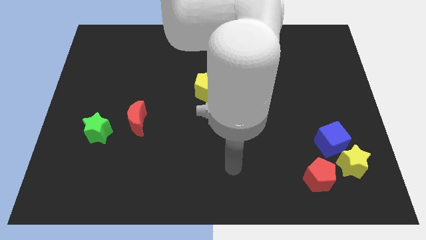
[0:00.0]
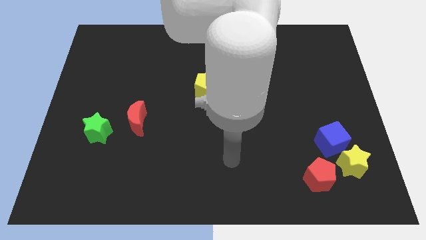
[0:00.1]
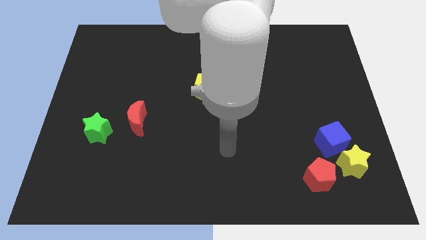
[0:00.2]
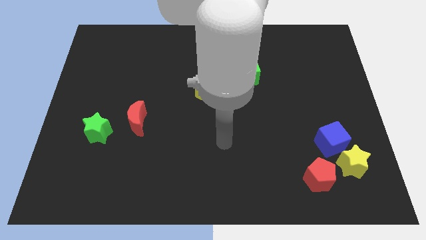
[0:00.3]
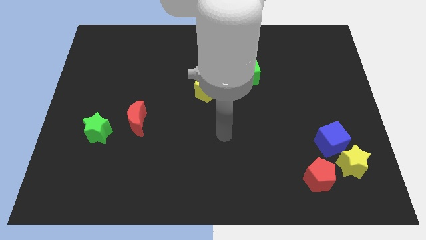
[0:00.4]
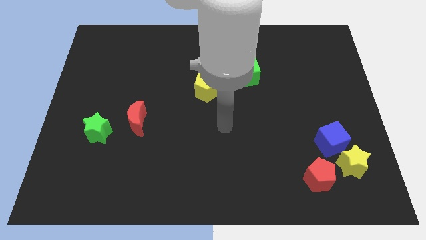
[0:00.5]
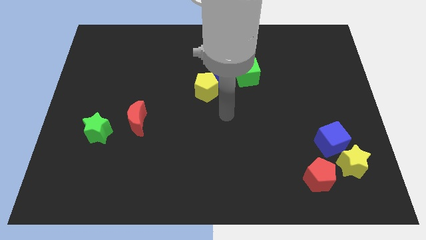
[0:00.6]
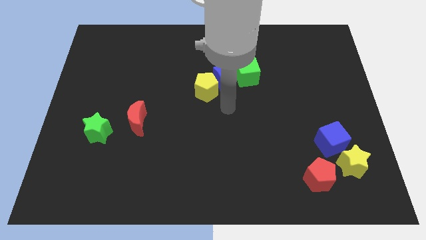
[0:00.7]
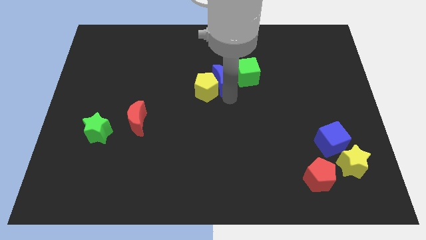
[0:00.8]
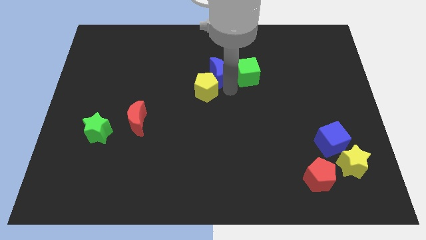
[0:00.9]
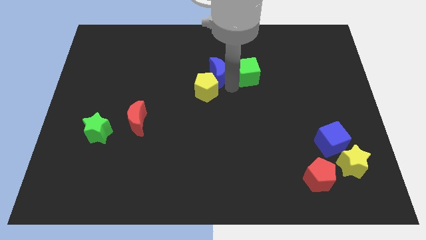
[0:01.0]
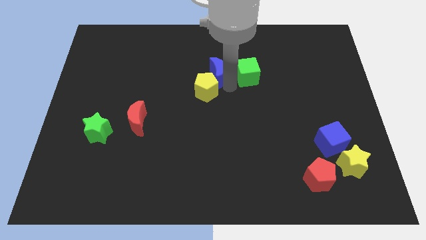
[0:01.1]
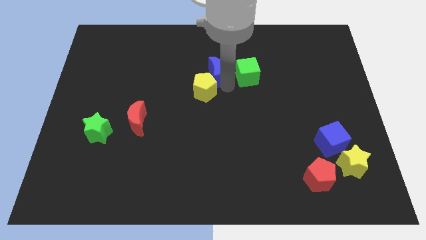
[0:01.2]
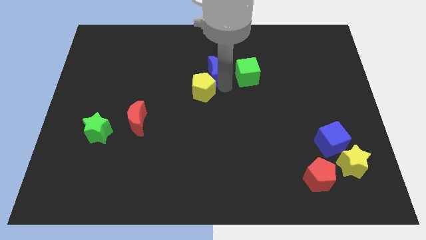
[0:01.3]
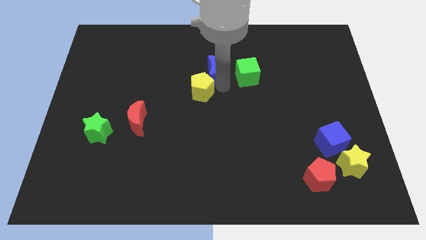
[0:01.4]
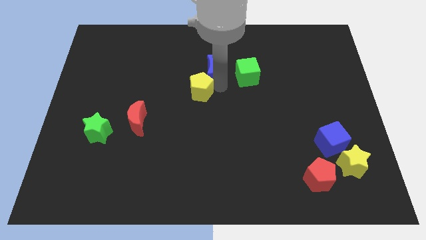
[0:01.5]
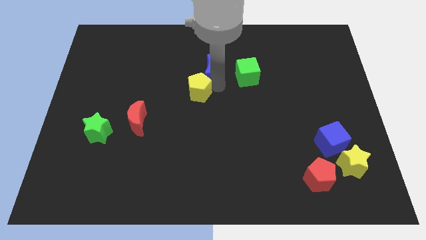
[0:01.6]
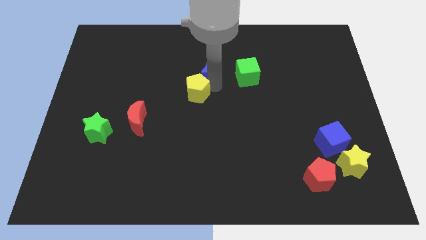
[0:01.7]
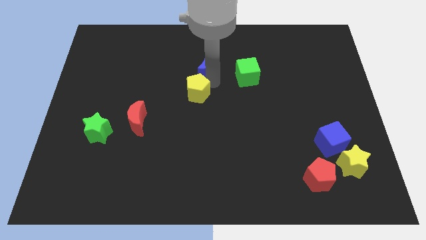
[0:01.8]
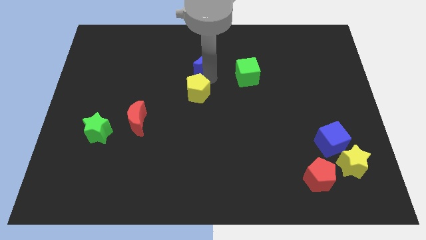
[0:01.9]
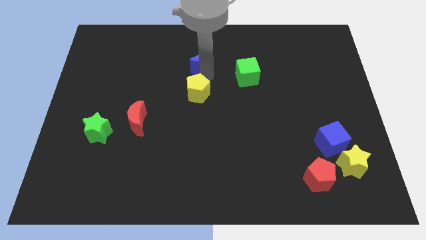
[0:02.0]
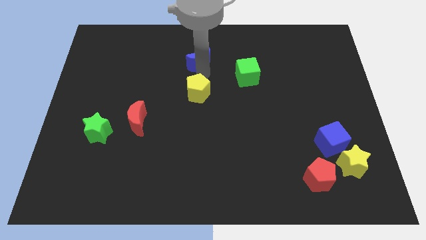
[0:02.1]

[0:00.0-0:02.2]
pull the yellow pentagon apart from the blue moon

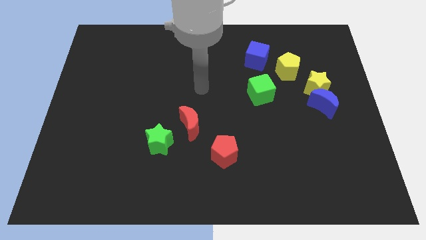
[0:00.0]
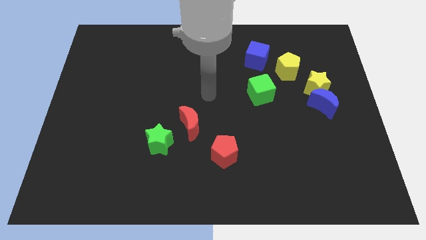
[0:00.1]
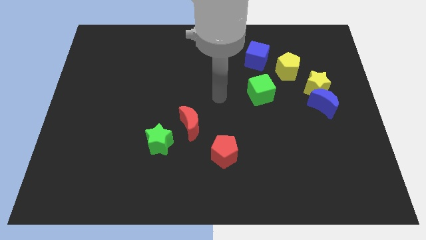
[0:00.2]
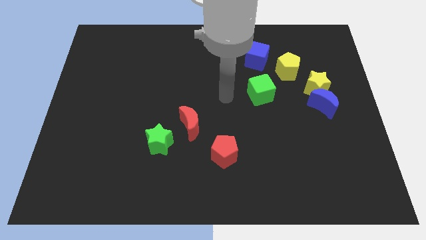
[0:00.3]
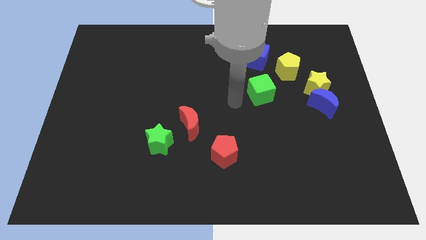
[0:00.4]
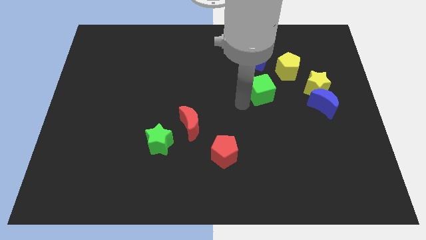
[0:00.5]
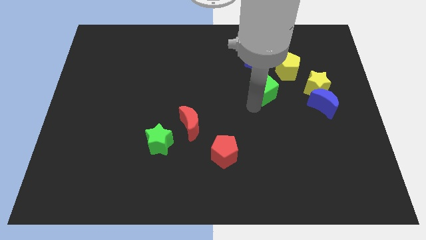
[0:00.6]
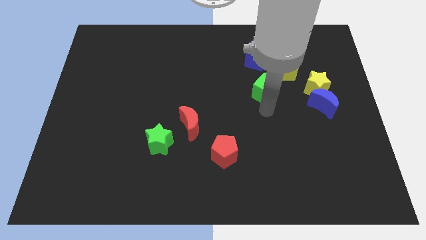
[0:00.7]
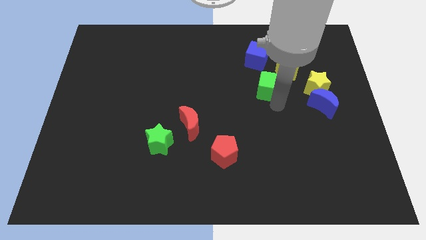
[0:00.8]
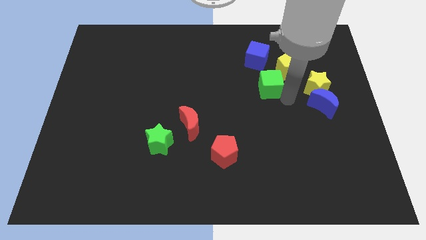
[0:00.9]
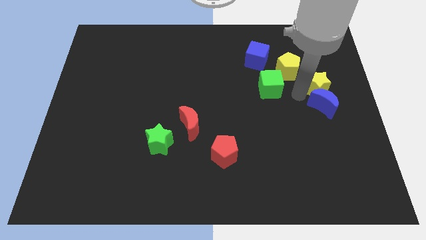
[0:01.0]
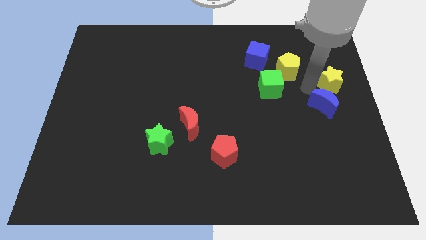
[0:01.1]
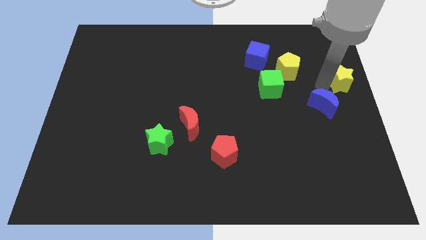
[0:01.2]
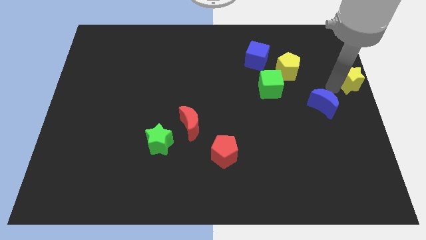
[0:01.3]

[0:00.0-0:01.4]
pull the blue moon apart from the yellow star

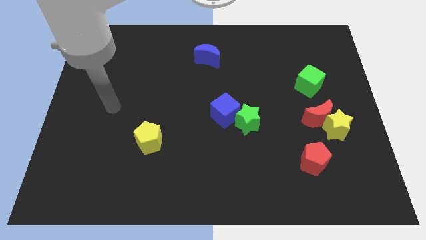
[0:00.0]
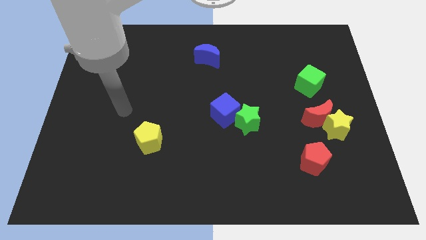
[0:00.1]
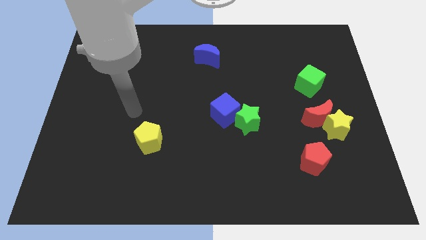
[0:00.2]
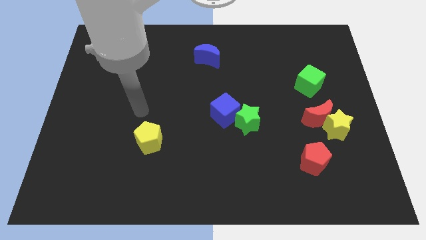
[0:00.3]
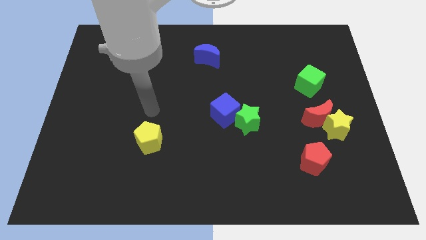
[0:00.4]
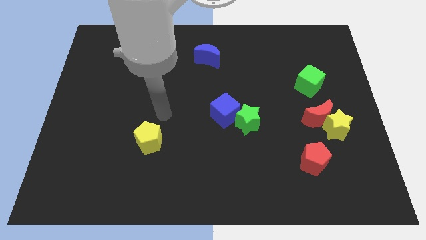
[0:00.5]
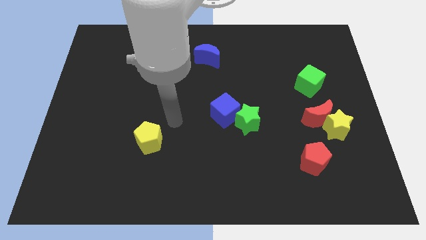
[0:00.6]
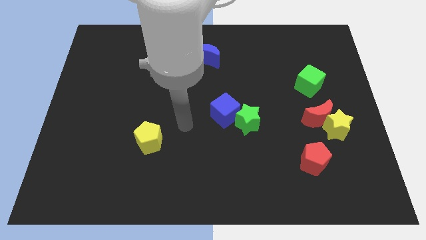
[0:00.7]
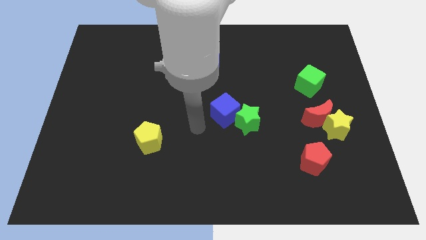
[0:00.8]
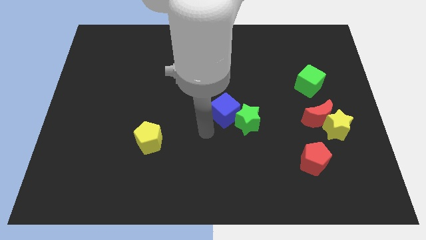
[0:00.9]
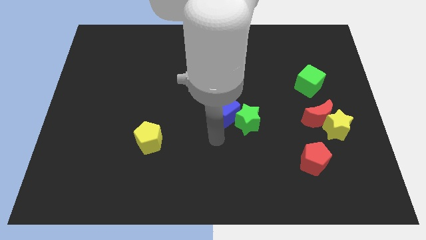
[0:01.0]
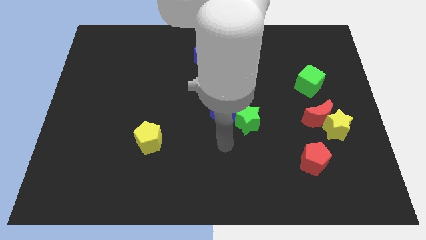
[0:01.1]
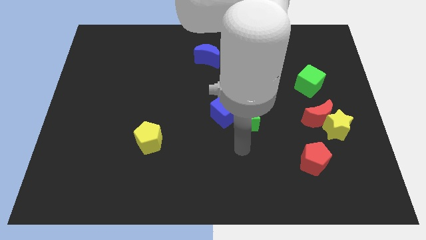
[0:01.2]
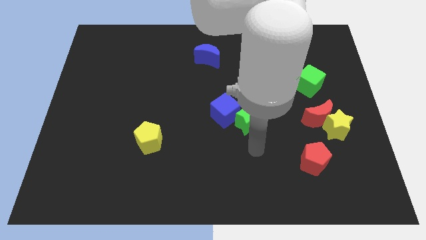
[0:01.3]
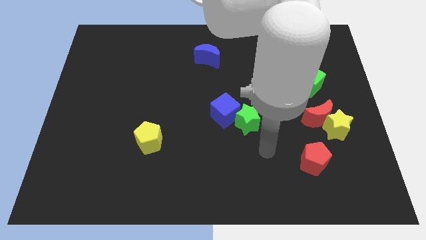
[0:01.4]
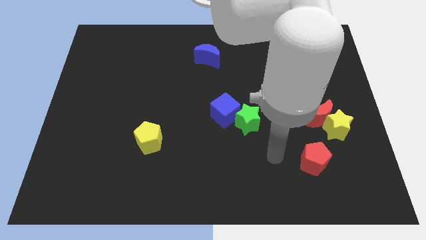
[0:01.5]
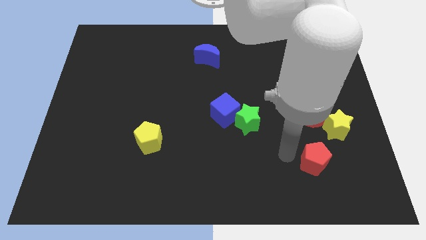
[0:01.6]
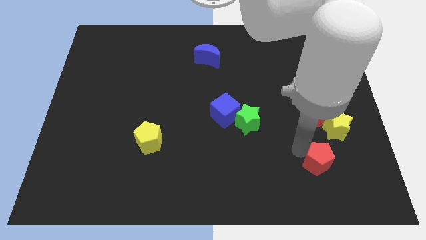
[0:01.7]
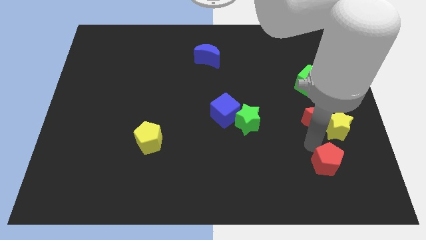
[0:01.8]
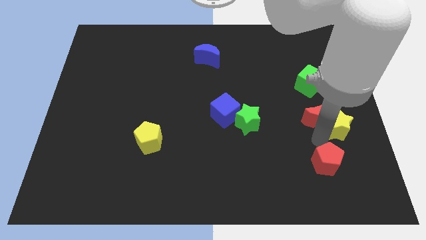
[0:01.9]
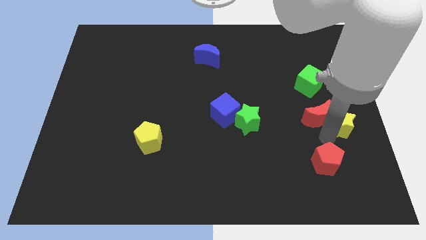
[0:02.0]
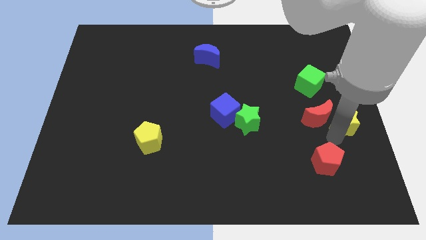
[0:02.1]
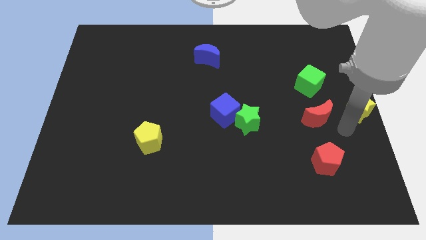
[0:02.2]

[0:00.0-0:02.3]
pull the red moon apart from the yellow star

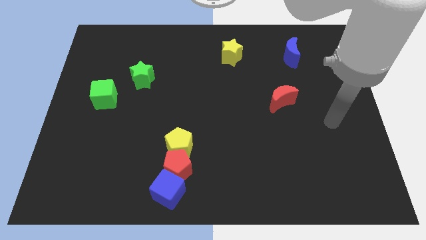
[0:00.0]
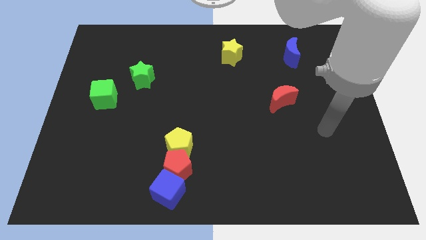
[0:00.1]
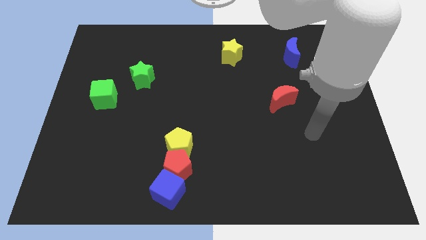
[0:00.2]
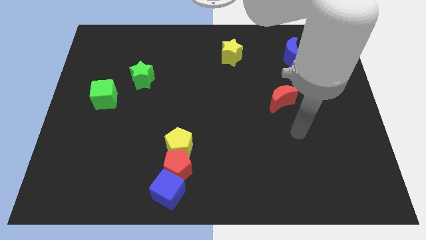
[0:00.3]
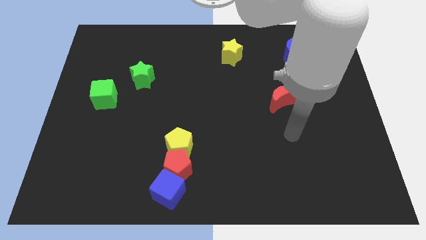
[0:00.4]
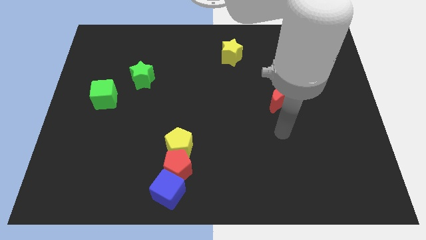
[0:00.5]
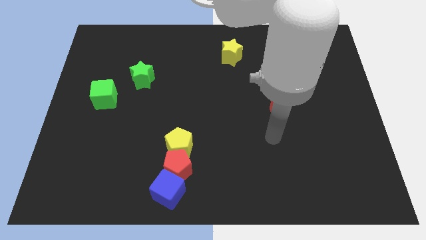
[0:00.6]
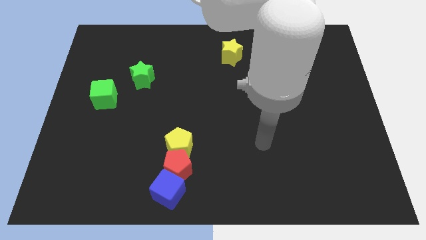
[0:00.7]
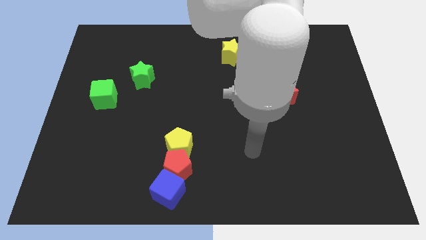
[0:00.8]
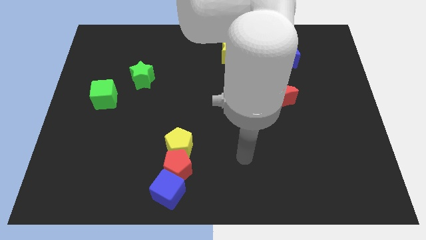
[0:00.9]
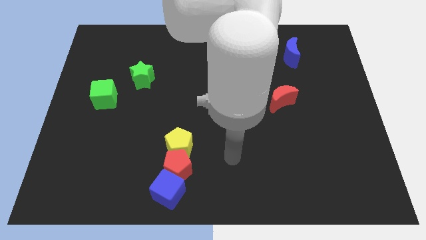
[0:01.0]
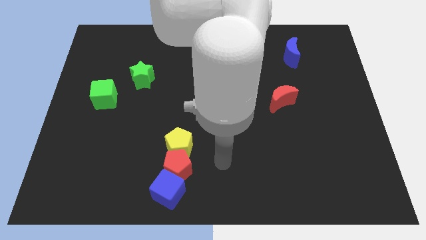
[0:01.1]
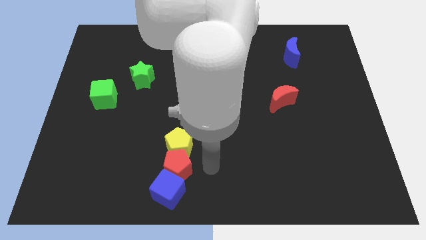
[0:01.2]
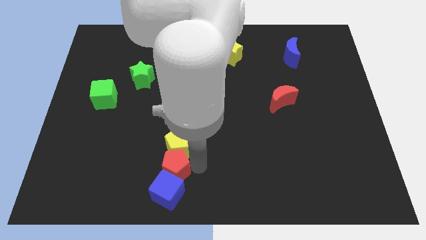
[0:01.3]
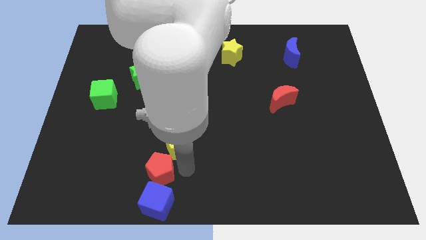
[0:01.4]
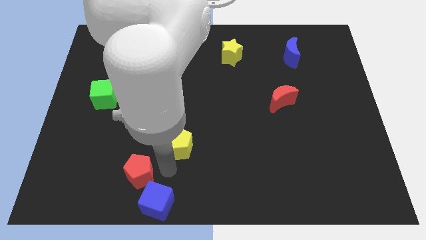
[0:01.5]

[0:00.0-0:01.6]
separate the yellow pentagon from the red pentagon

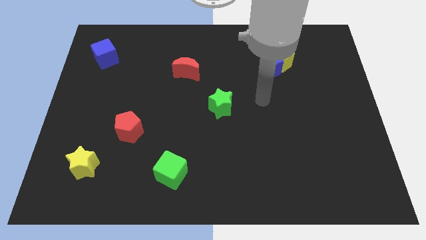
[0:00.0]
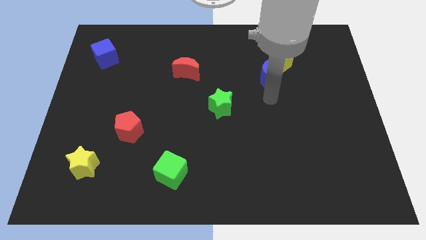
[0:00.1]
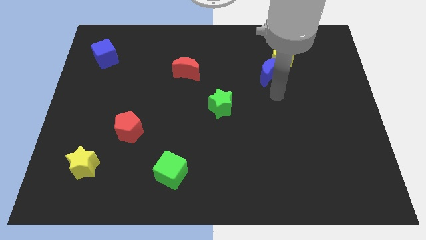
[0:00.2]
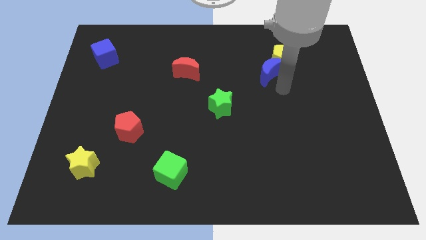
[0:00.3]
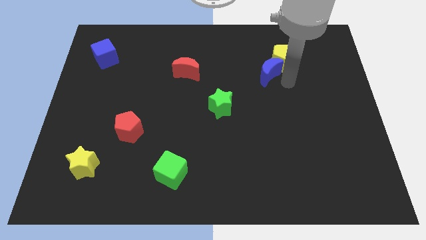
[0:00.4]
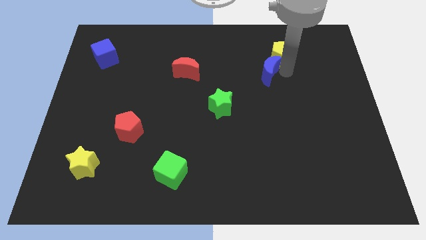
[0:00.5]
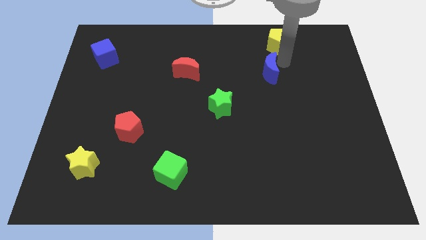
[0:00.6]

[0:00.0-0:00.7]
pull the blue moon apart from the yellow pentagon

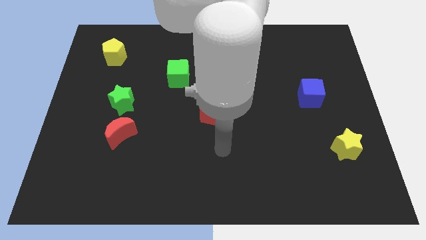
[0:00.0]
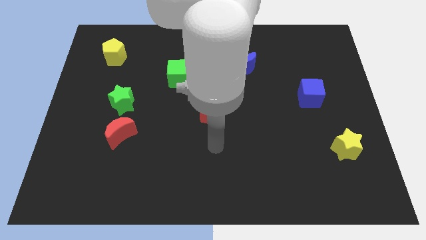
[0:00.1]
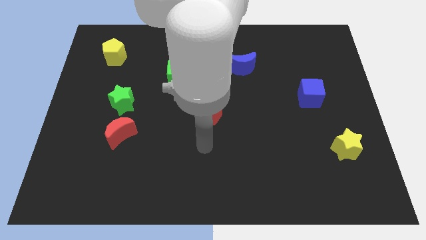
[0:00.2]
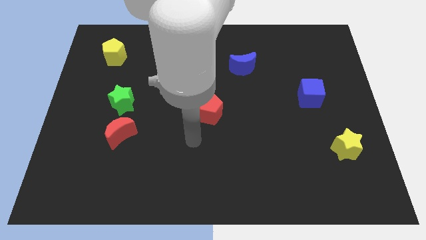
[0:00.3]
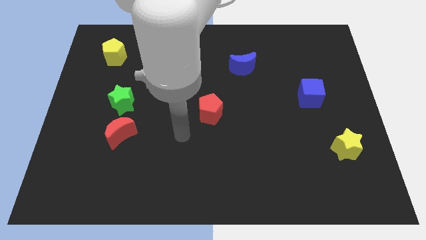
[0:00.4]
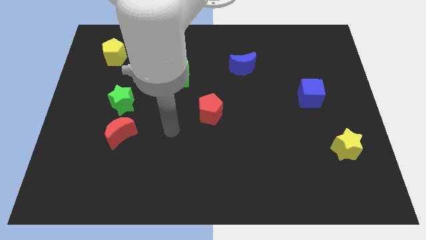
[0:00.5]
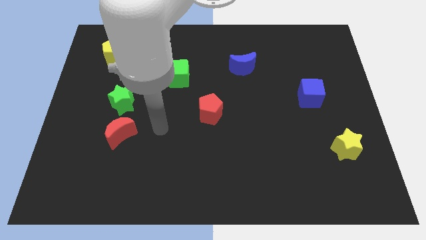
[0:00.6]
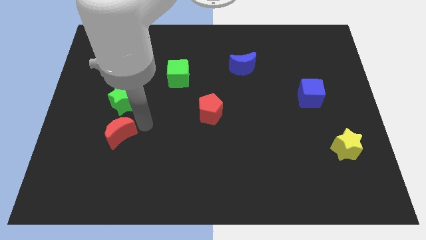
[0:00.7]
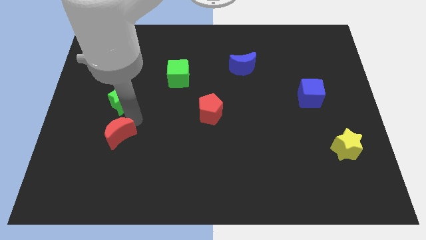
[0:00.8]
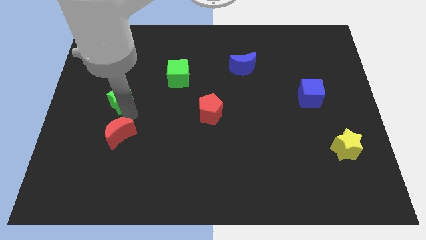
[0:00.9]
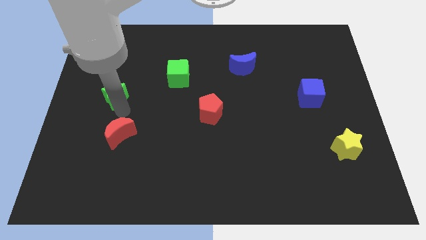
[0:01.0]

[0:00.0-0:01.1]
move the red moon away from the green star
